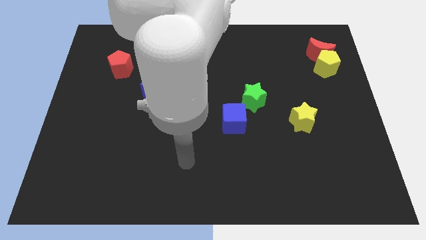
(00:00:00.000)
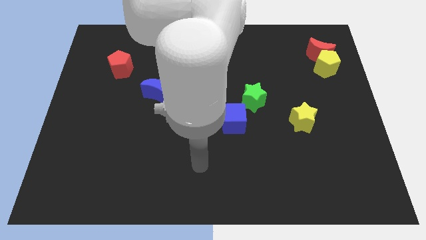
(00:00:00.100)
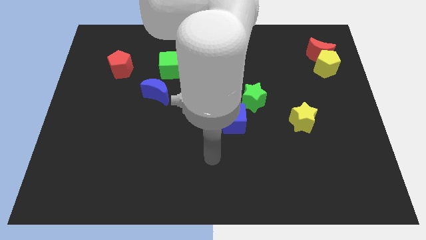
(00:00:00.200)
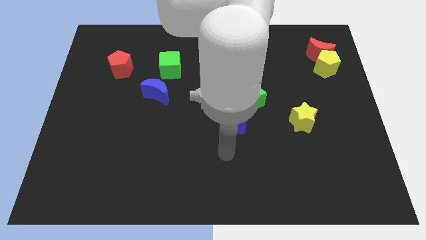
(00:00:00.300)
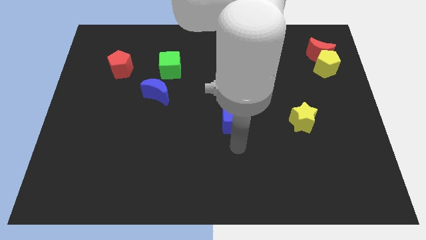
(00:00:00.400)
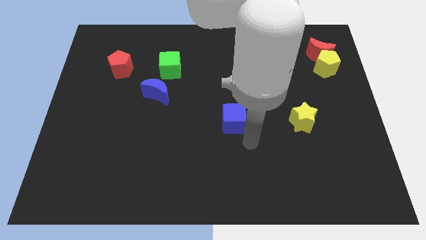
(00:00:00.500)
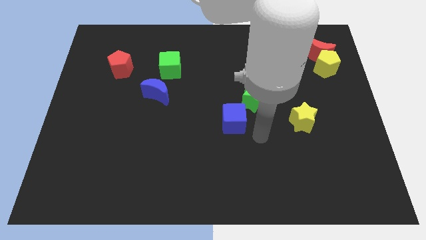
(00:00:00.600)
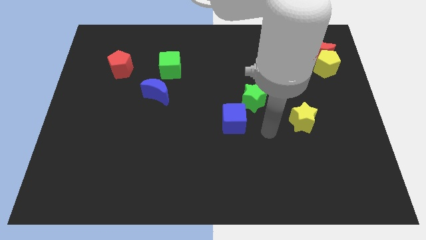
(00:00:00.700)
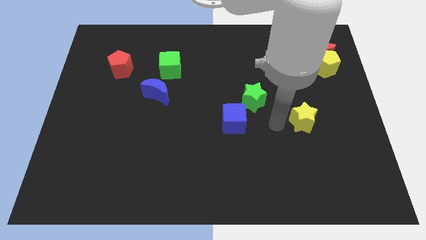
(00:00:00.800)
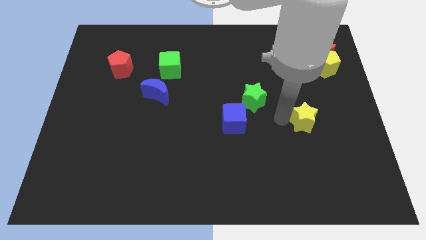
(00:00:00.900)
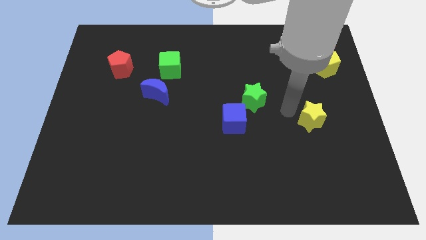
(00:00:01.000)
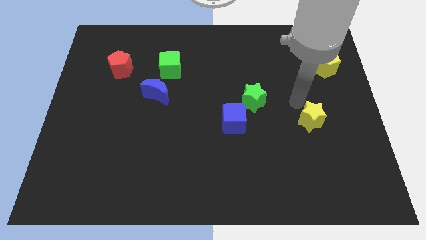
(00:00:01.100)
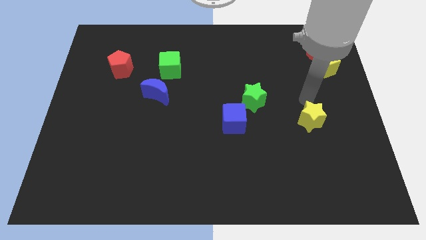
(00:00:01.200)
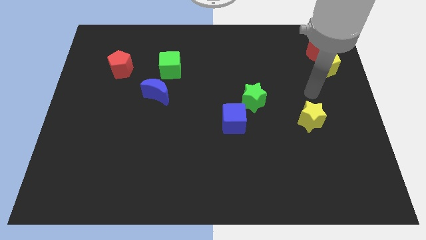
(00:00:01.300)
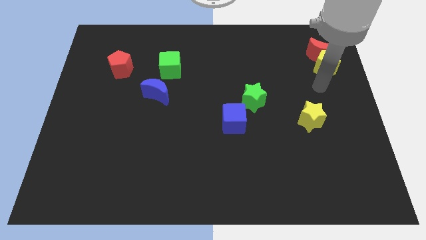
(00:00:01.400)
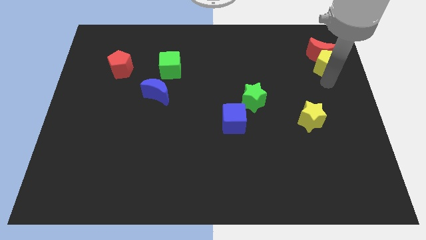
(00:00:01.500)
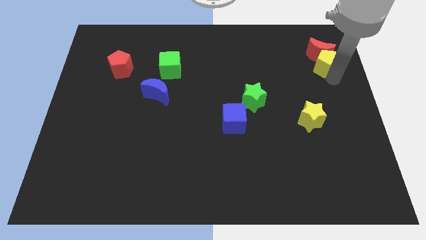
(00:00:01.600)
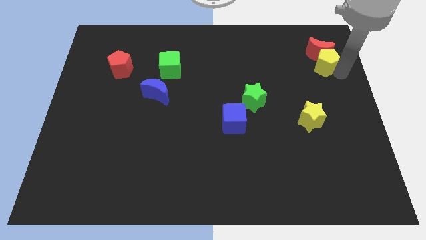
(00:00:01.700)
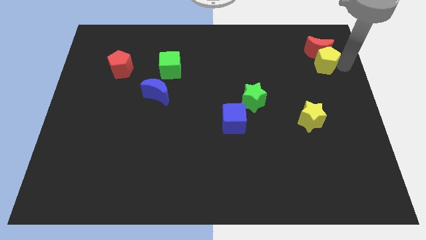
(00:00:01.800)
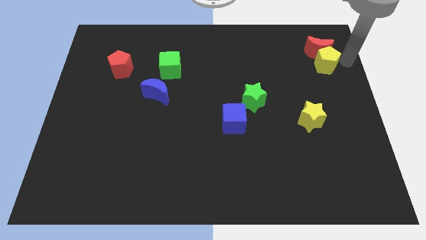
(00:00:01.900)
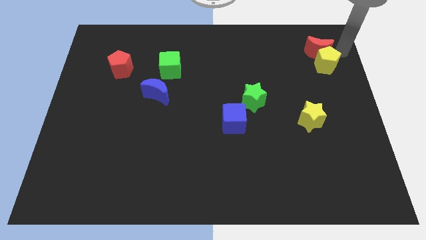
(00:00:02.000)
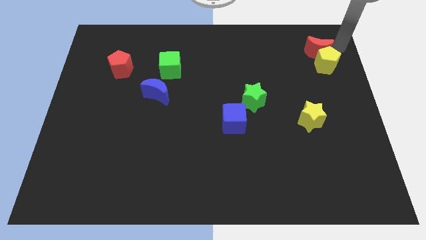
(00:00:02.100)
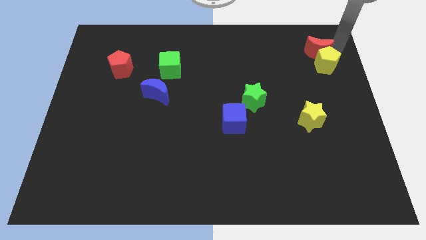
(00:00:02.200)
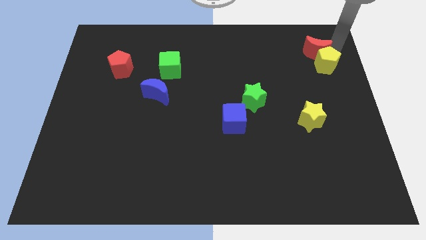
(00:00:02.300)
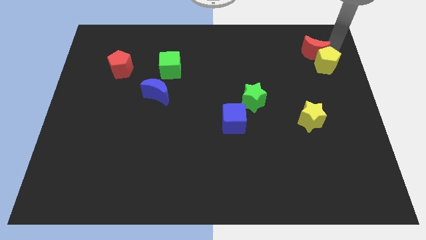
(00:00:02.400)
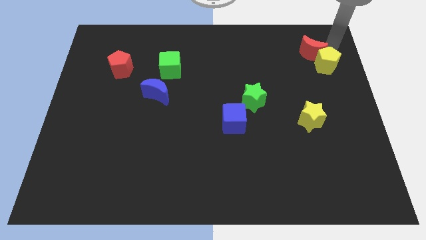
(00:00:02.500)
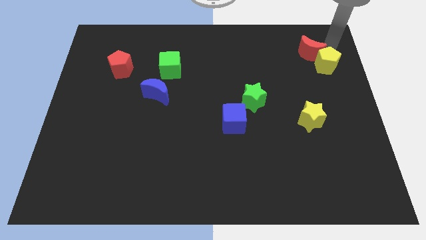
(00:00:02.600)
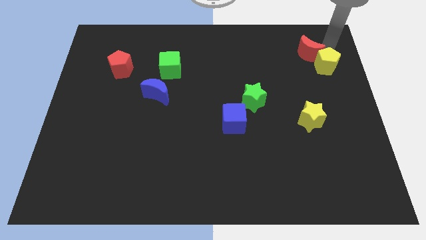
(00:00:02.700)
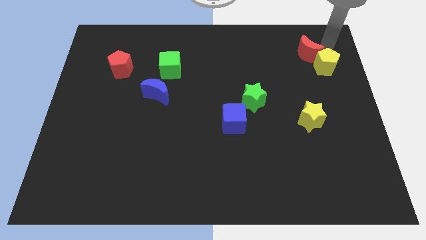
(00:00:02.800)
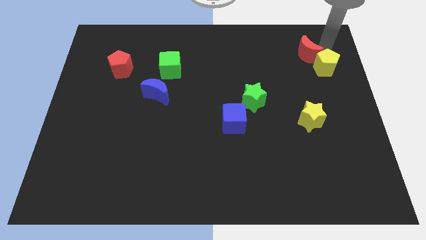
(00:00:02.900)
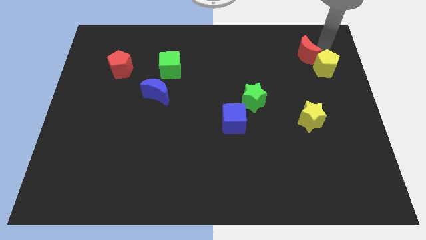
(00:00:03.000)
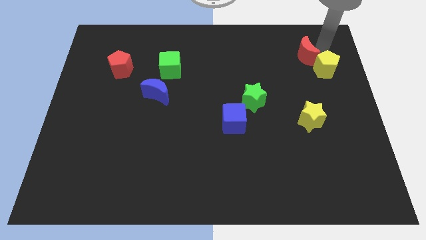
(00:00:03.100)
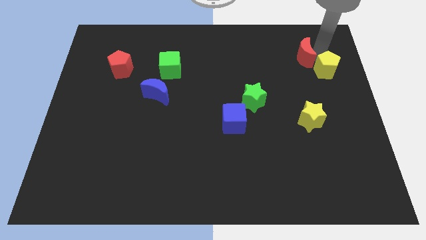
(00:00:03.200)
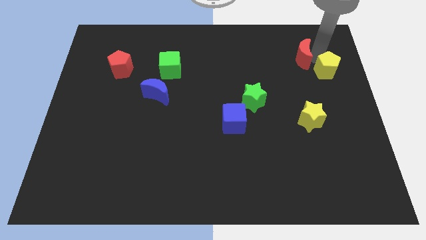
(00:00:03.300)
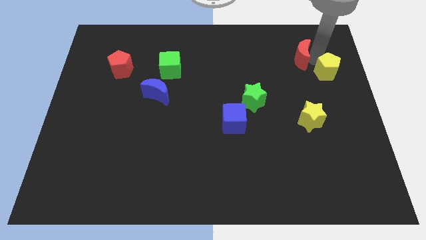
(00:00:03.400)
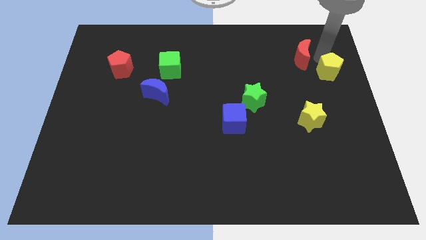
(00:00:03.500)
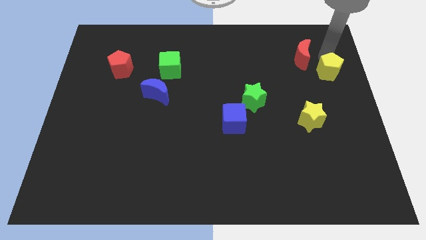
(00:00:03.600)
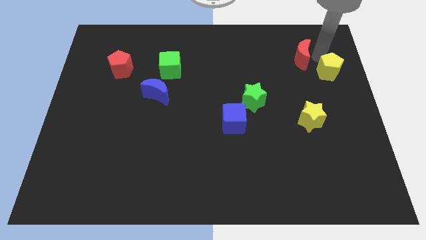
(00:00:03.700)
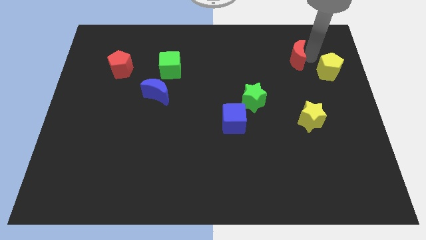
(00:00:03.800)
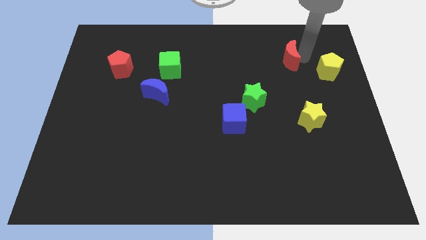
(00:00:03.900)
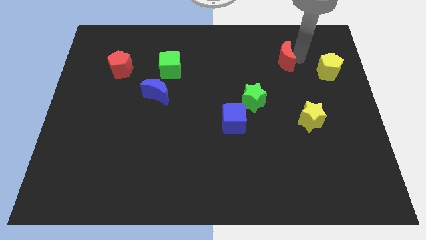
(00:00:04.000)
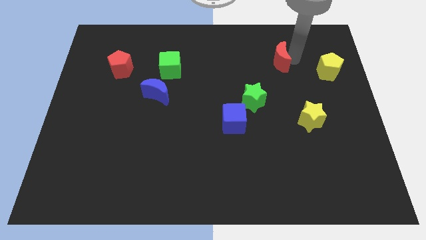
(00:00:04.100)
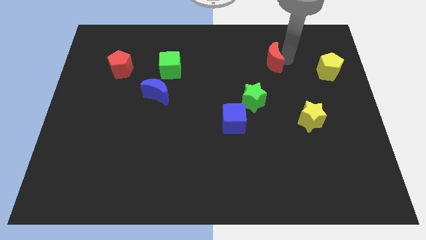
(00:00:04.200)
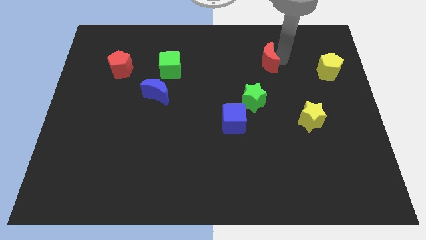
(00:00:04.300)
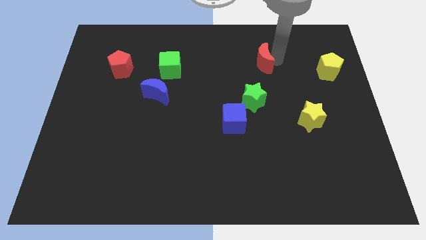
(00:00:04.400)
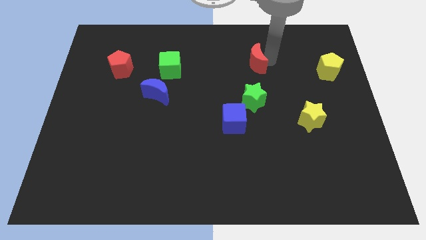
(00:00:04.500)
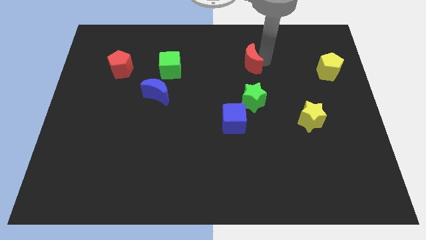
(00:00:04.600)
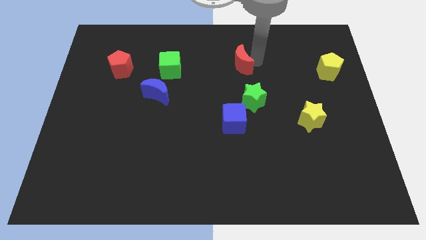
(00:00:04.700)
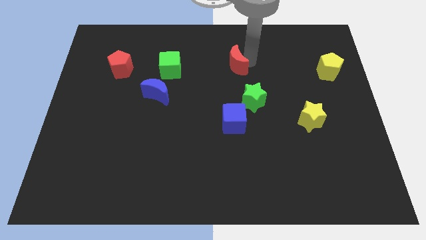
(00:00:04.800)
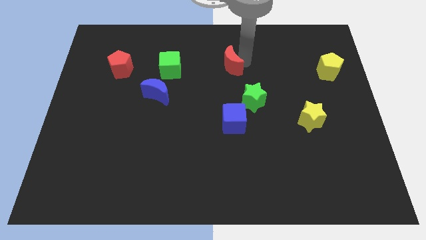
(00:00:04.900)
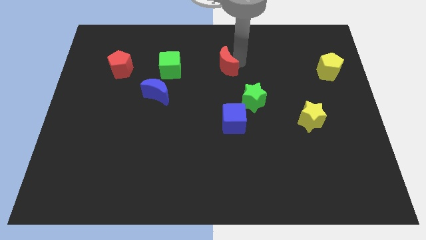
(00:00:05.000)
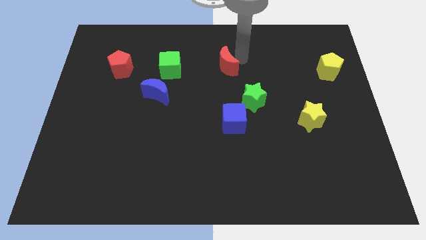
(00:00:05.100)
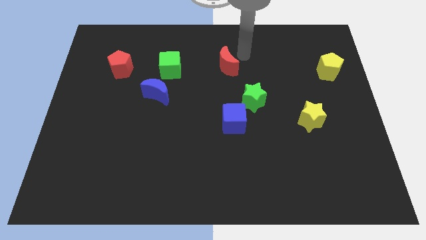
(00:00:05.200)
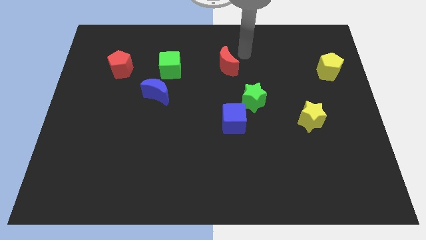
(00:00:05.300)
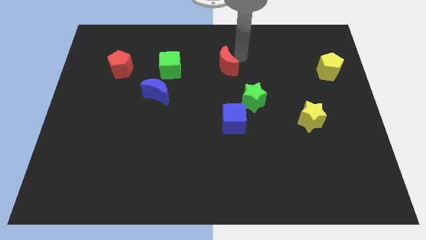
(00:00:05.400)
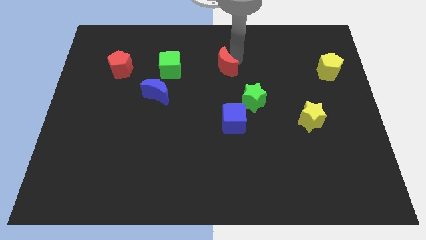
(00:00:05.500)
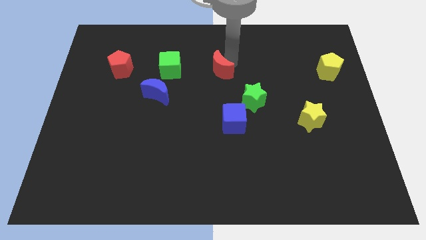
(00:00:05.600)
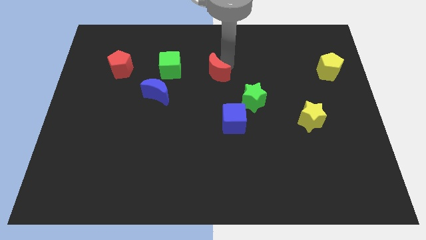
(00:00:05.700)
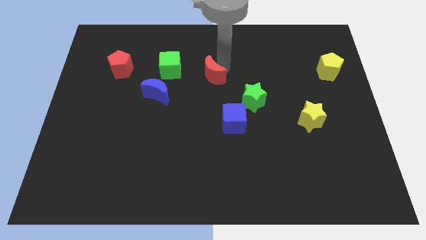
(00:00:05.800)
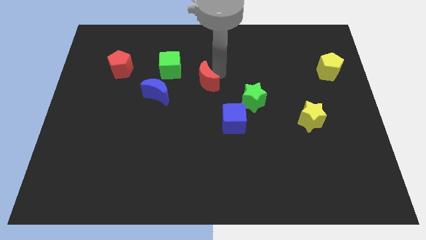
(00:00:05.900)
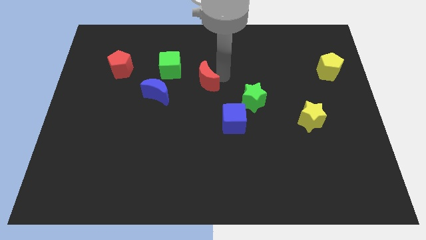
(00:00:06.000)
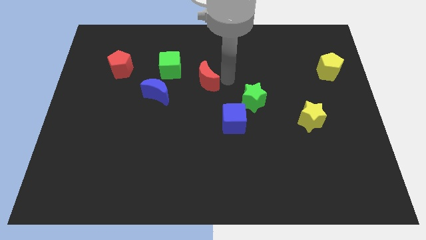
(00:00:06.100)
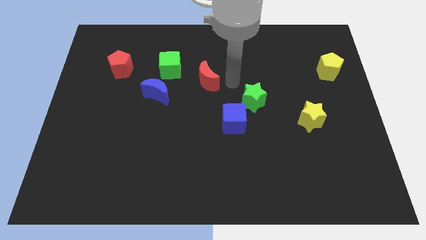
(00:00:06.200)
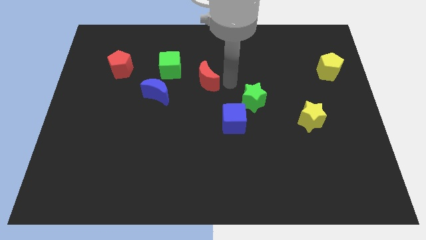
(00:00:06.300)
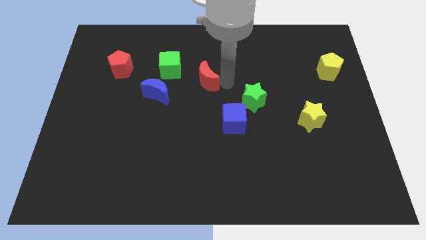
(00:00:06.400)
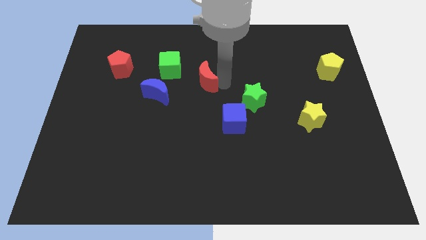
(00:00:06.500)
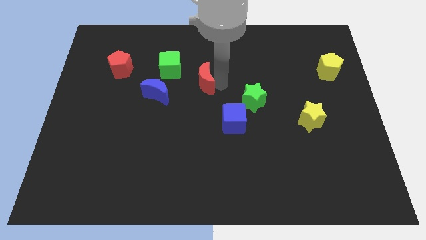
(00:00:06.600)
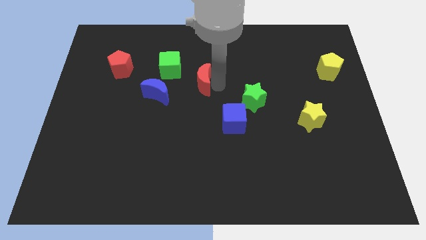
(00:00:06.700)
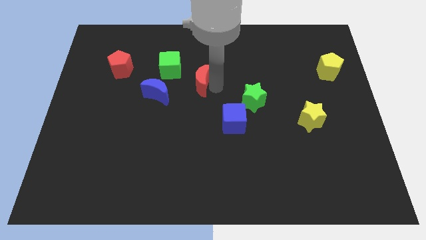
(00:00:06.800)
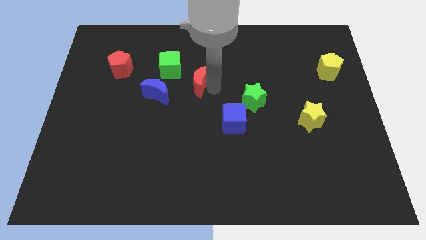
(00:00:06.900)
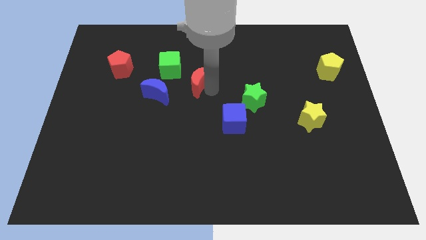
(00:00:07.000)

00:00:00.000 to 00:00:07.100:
move the red moon to the top right side of the blue moon

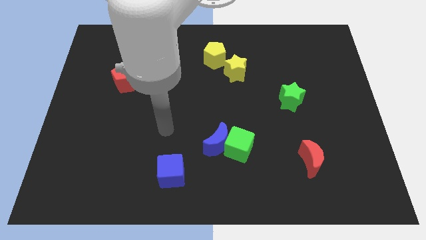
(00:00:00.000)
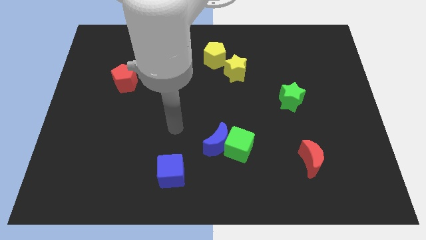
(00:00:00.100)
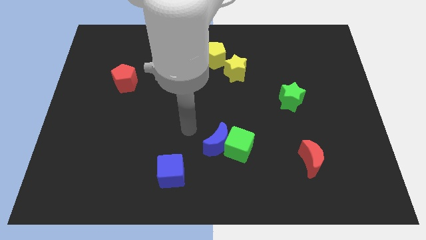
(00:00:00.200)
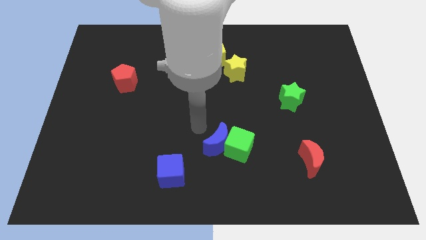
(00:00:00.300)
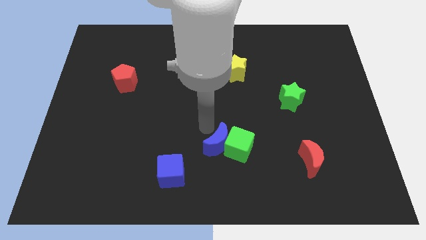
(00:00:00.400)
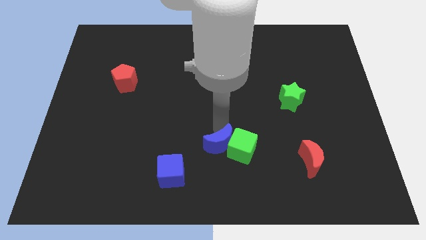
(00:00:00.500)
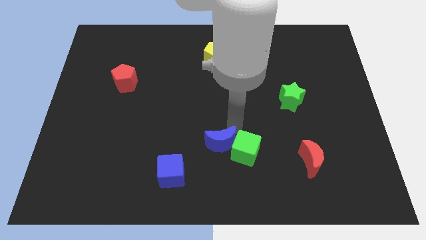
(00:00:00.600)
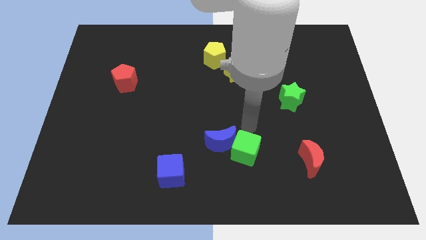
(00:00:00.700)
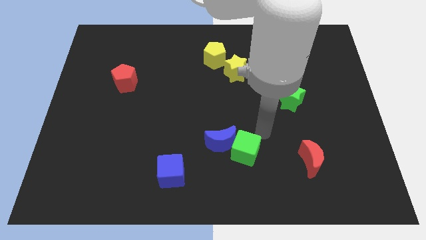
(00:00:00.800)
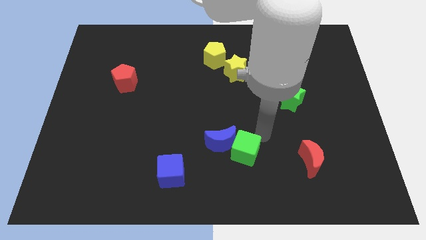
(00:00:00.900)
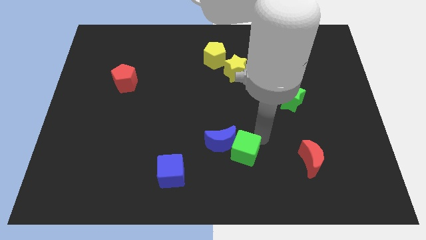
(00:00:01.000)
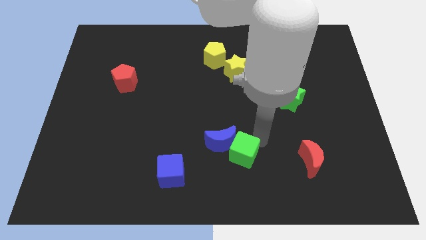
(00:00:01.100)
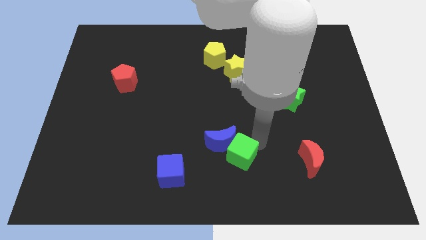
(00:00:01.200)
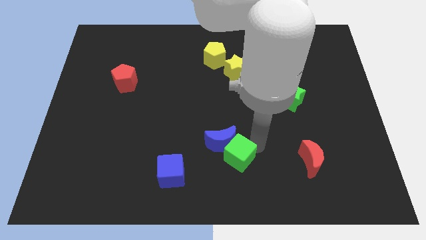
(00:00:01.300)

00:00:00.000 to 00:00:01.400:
move the green cube to the right side of the blue cube
